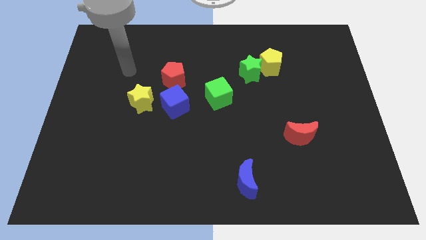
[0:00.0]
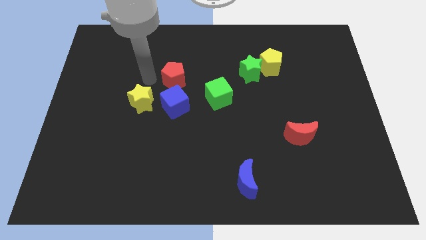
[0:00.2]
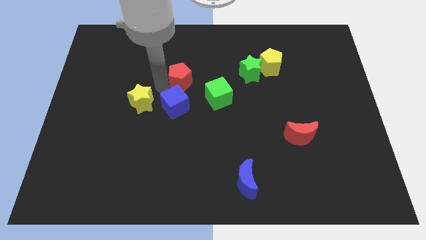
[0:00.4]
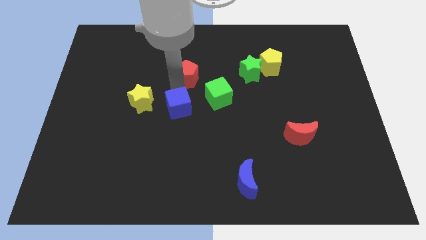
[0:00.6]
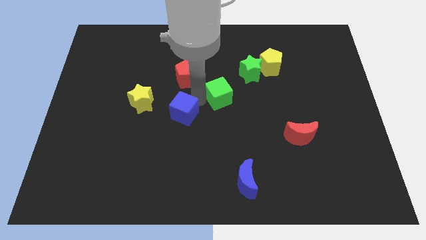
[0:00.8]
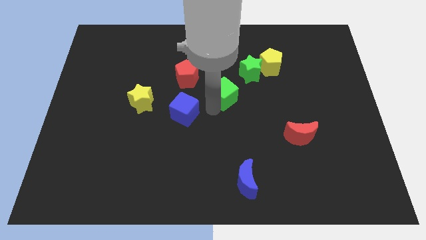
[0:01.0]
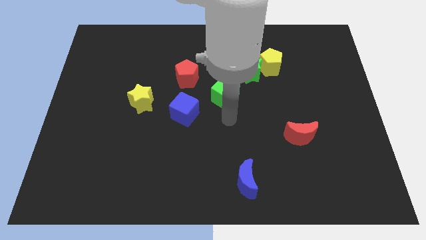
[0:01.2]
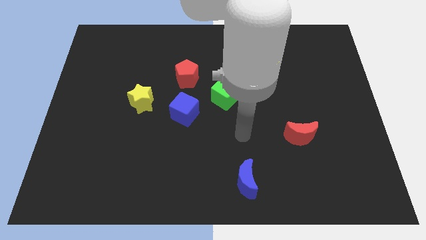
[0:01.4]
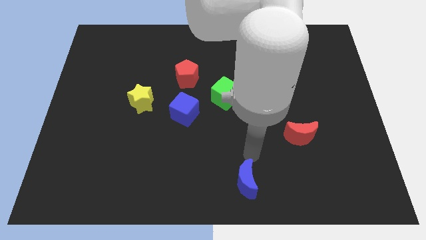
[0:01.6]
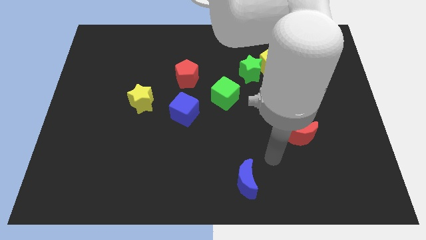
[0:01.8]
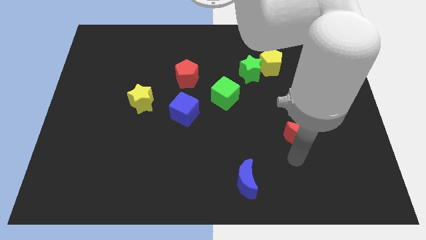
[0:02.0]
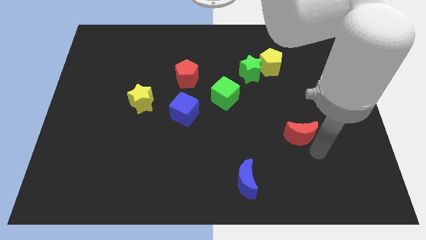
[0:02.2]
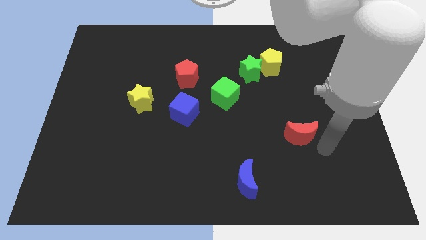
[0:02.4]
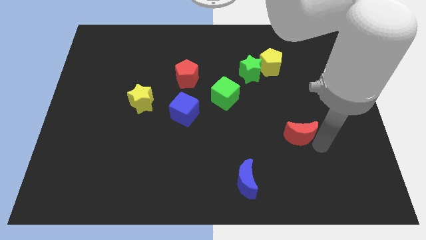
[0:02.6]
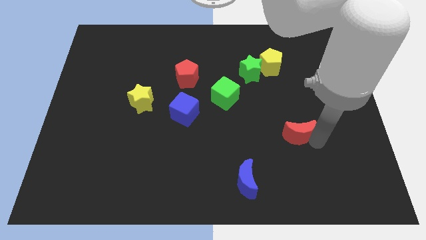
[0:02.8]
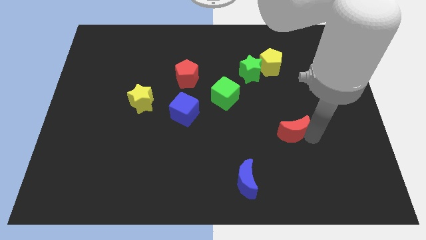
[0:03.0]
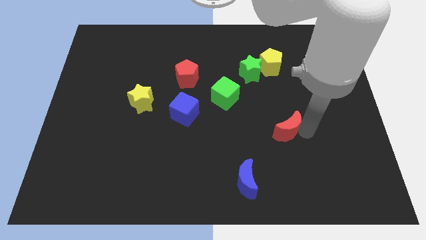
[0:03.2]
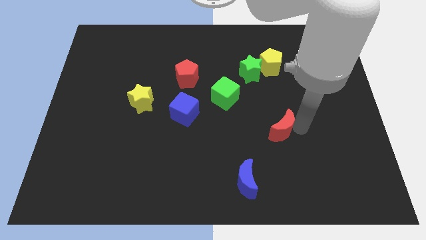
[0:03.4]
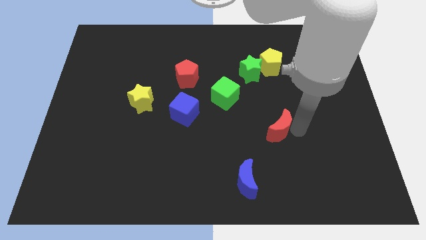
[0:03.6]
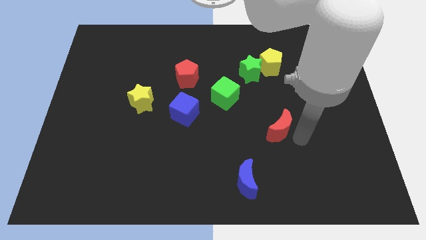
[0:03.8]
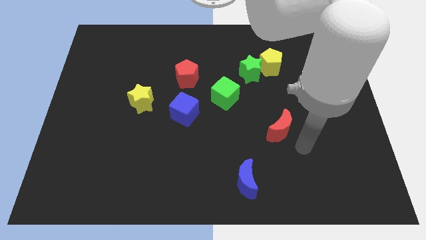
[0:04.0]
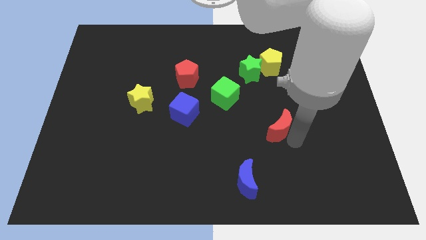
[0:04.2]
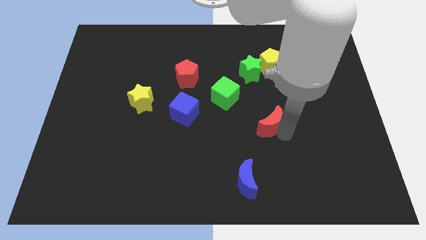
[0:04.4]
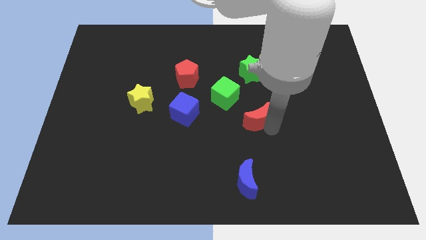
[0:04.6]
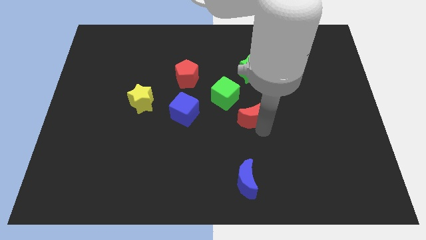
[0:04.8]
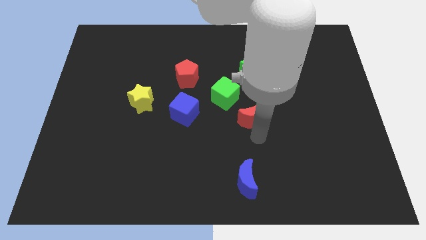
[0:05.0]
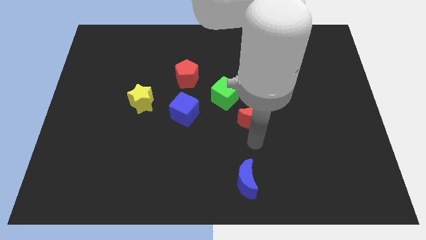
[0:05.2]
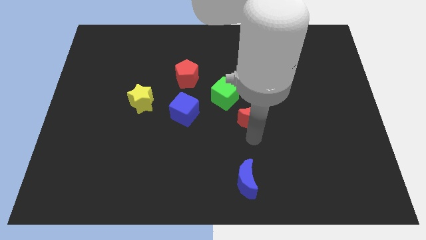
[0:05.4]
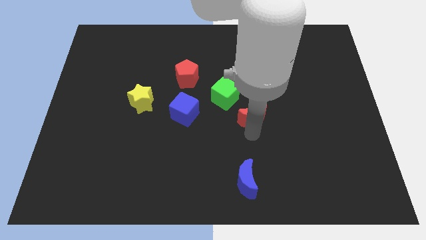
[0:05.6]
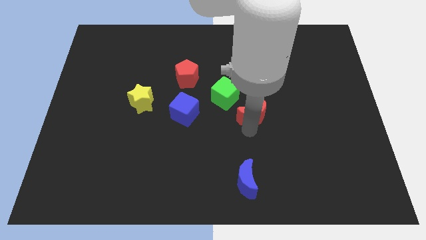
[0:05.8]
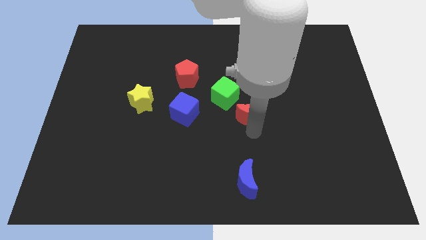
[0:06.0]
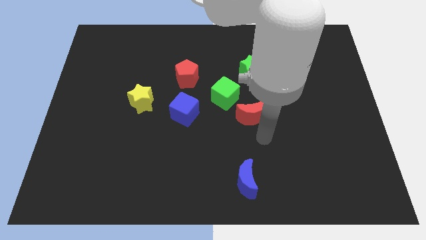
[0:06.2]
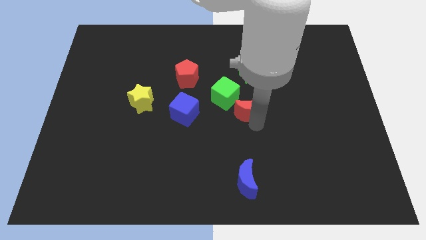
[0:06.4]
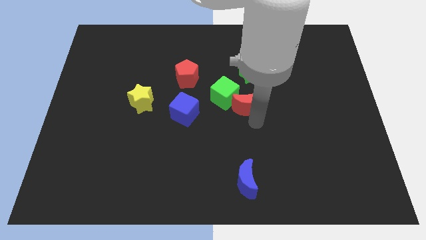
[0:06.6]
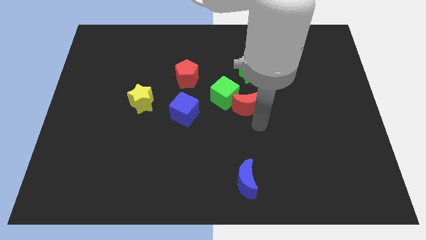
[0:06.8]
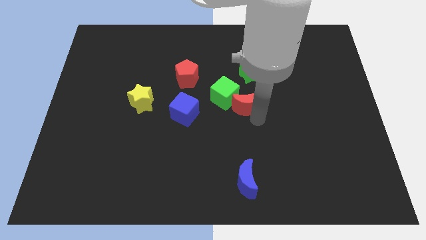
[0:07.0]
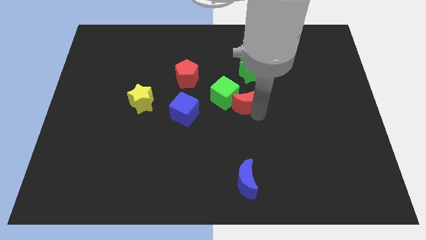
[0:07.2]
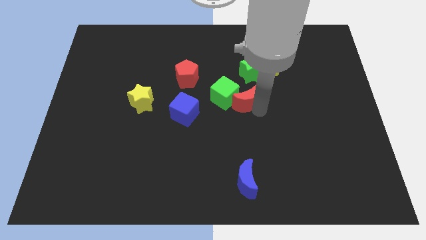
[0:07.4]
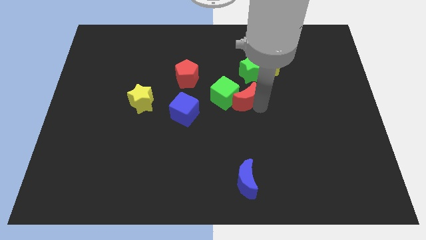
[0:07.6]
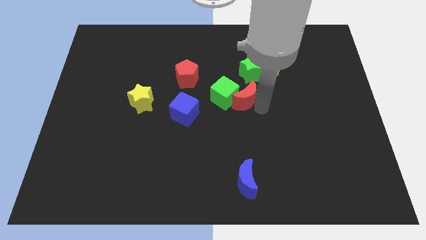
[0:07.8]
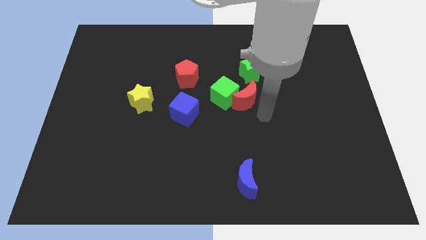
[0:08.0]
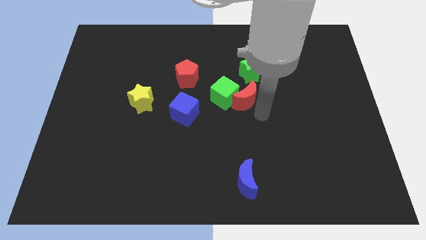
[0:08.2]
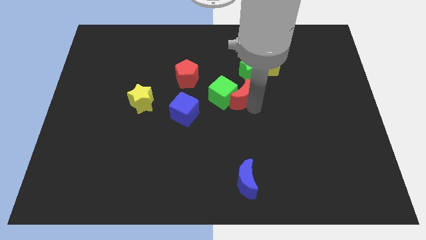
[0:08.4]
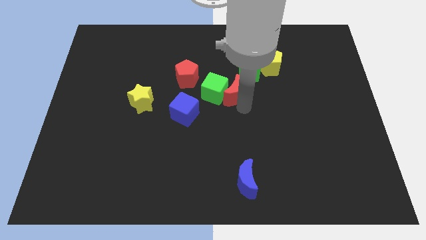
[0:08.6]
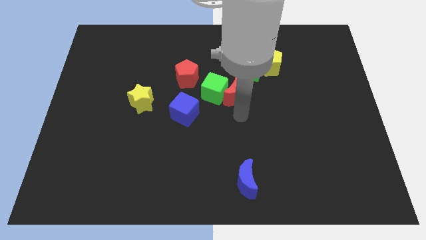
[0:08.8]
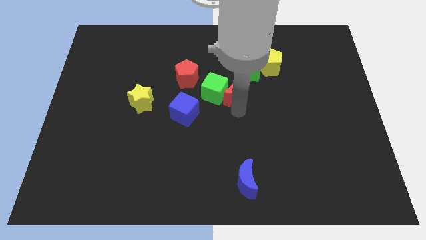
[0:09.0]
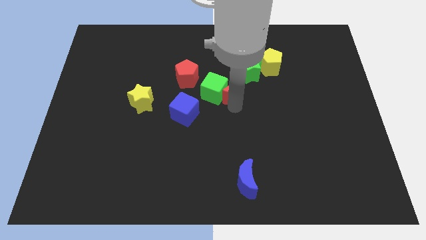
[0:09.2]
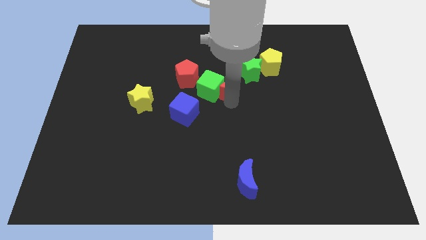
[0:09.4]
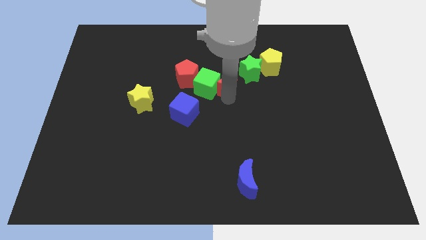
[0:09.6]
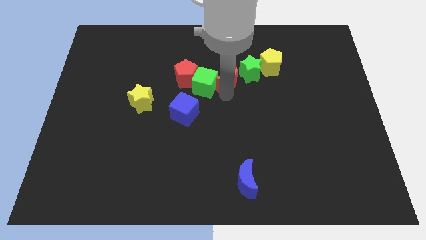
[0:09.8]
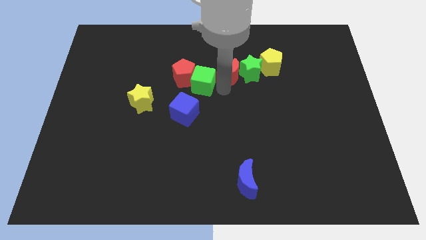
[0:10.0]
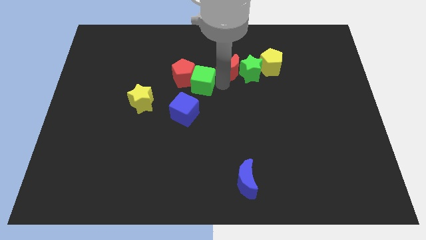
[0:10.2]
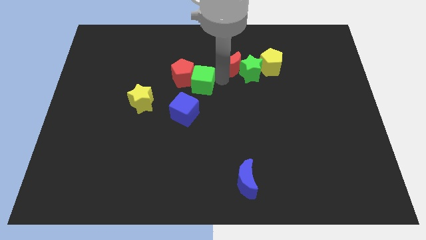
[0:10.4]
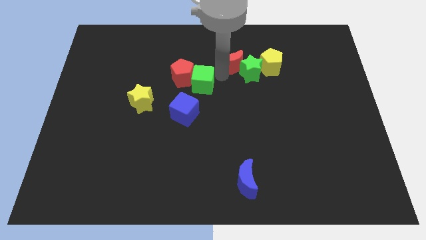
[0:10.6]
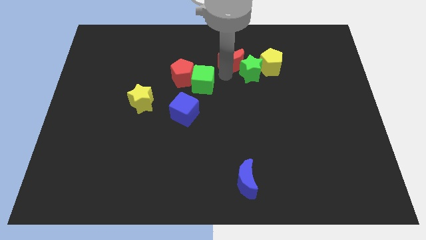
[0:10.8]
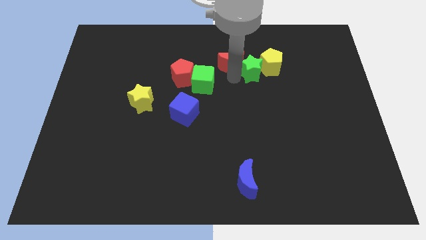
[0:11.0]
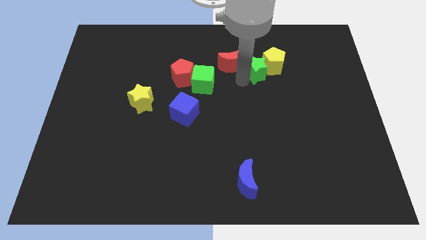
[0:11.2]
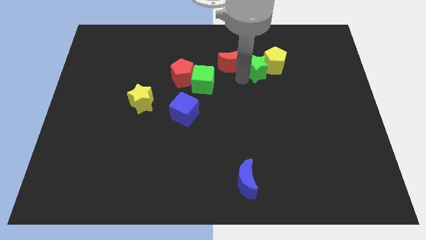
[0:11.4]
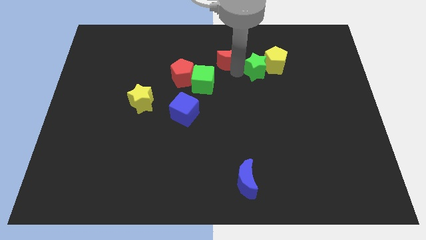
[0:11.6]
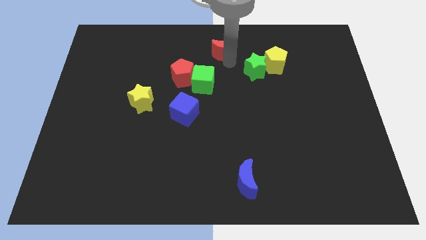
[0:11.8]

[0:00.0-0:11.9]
push the red moon to the top
